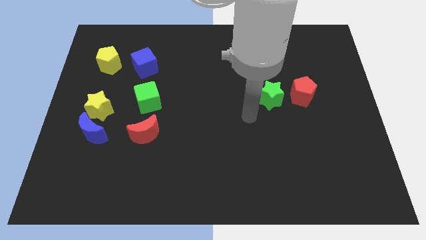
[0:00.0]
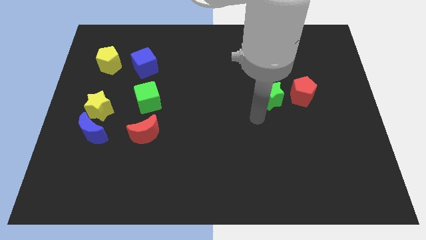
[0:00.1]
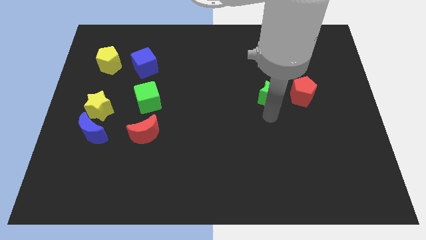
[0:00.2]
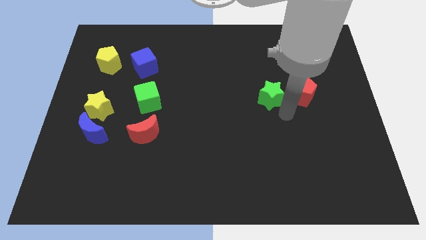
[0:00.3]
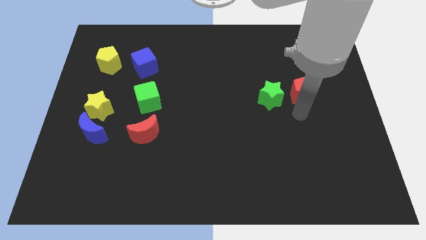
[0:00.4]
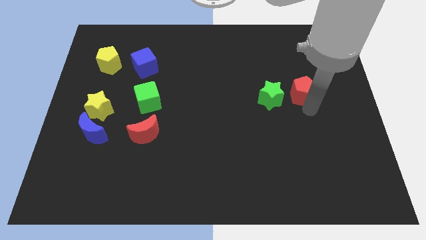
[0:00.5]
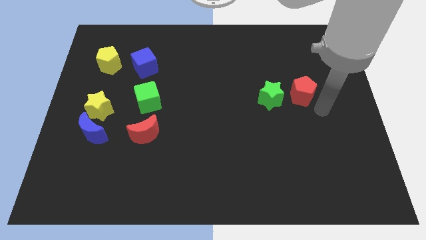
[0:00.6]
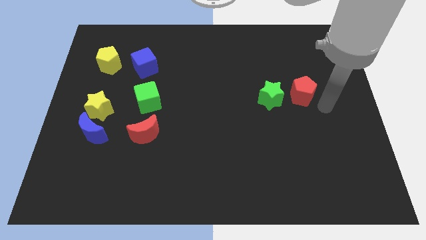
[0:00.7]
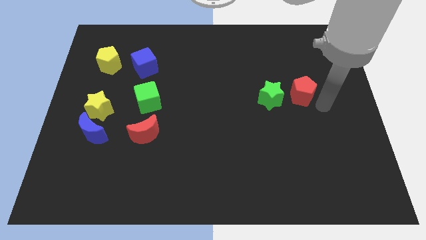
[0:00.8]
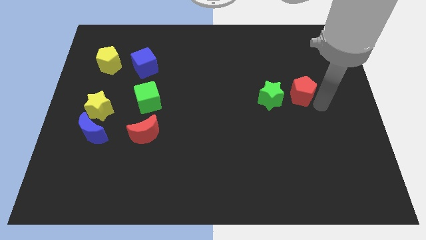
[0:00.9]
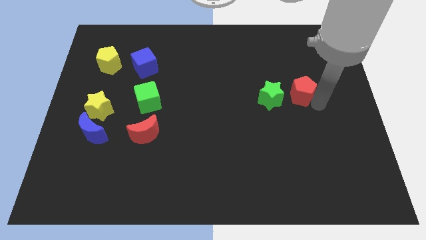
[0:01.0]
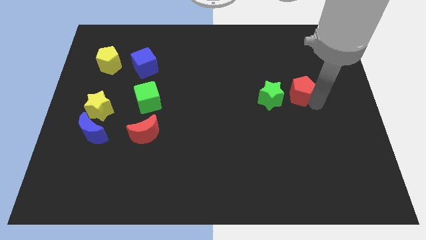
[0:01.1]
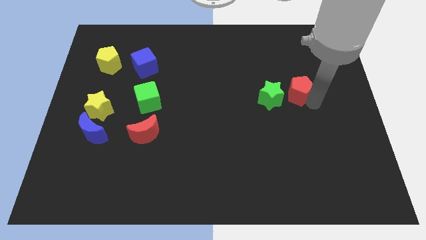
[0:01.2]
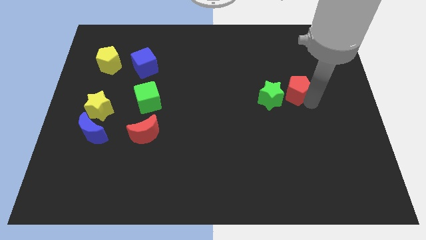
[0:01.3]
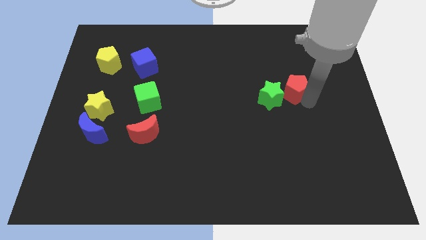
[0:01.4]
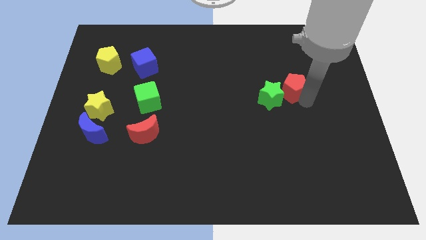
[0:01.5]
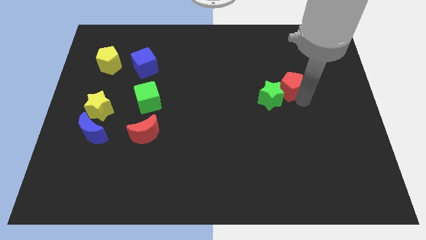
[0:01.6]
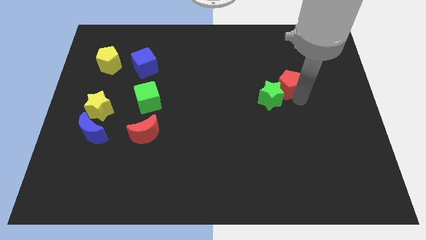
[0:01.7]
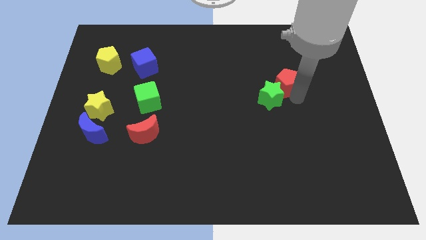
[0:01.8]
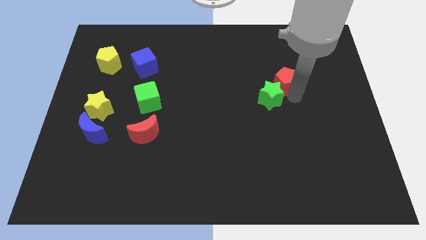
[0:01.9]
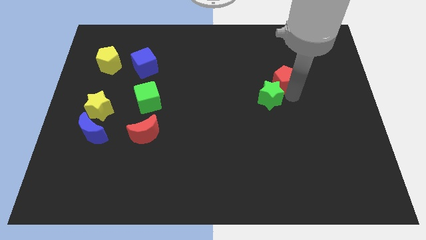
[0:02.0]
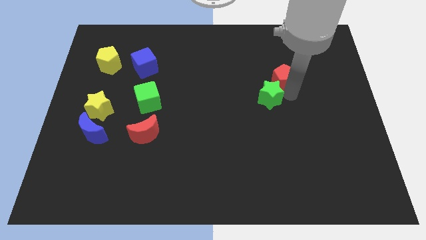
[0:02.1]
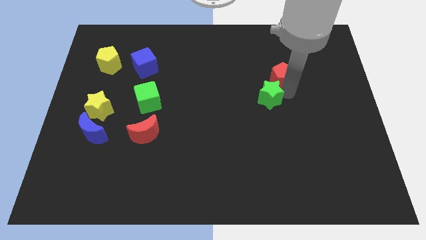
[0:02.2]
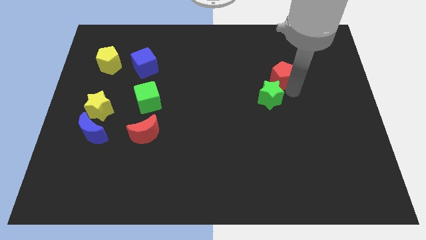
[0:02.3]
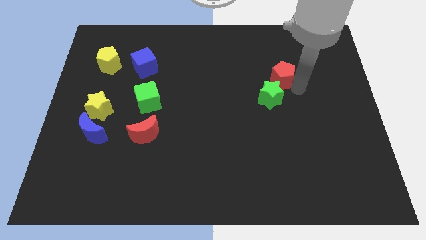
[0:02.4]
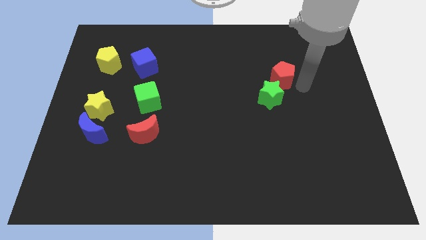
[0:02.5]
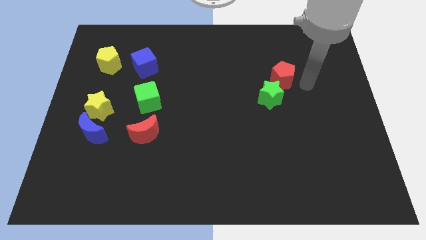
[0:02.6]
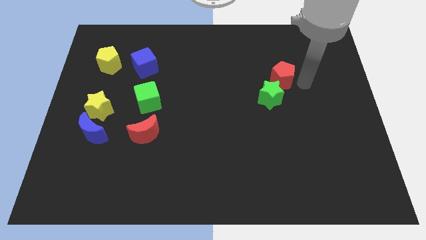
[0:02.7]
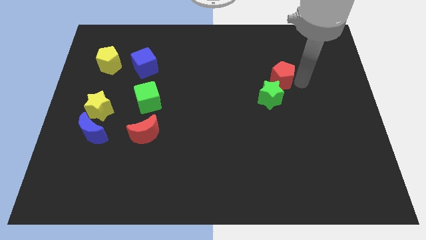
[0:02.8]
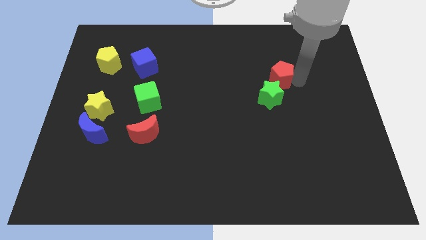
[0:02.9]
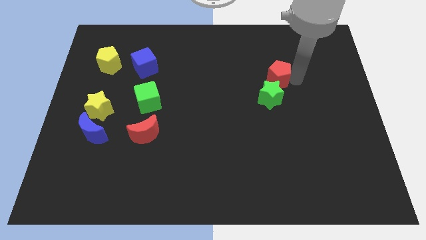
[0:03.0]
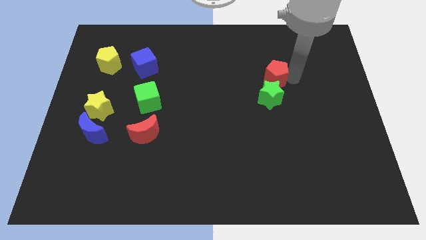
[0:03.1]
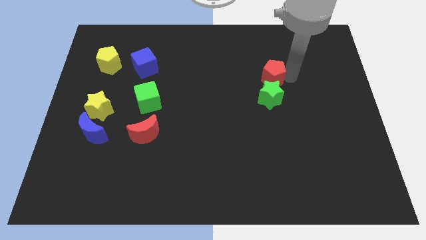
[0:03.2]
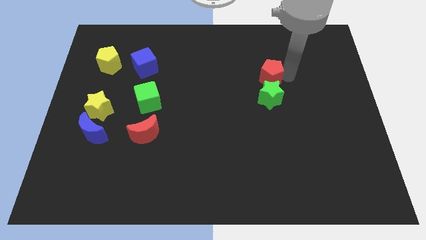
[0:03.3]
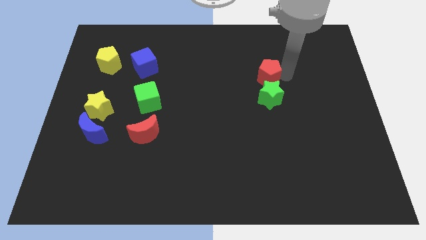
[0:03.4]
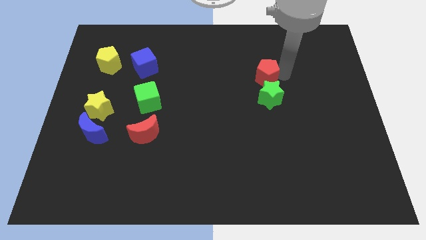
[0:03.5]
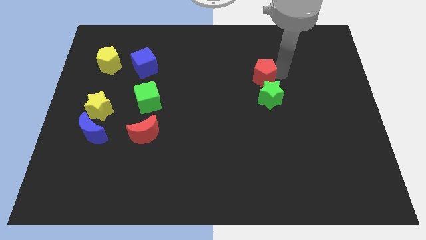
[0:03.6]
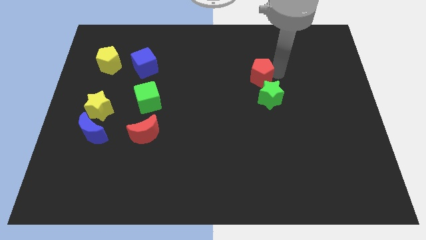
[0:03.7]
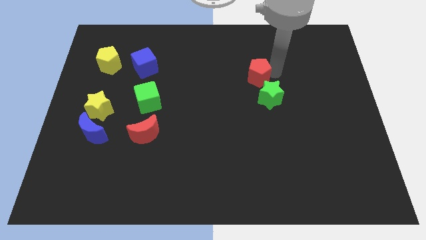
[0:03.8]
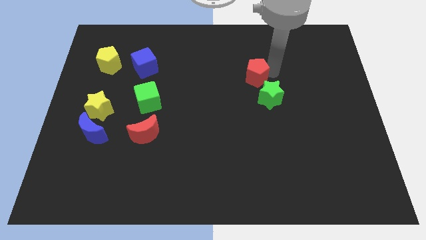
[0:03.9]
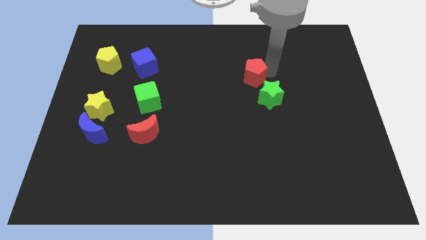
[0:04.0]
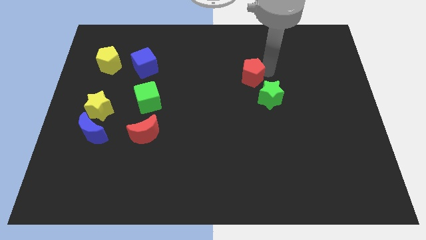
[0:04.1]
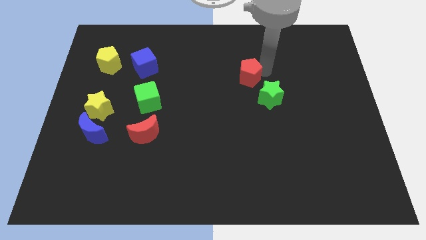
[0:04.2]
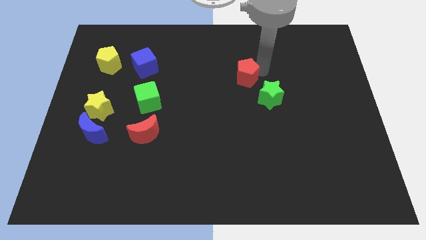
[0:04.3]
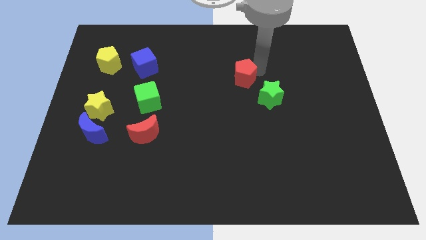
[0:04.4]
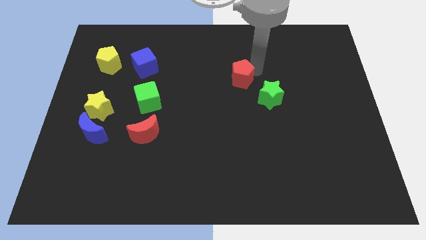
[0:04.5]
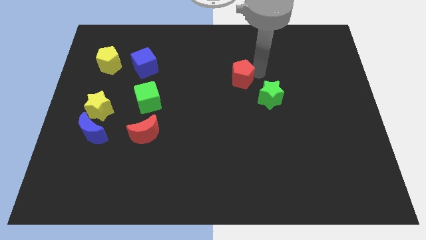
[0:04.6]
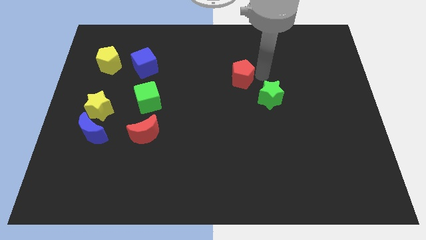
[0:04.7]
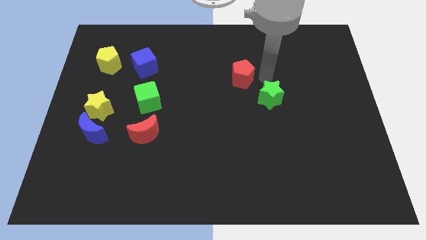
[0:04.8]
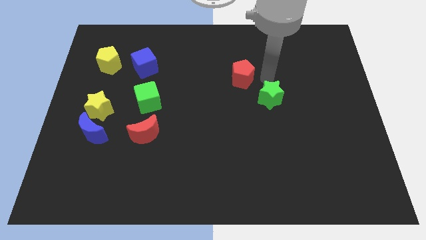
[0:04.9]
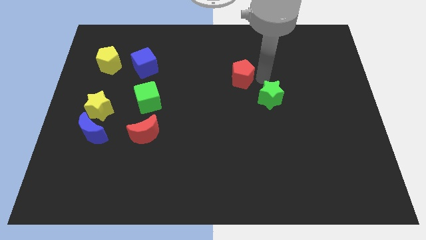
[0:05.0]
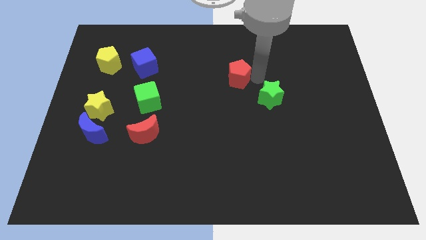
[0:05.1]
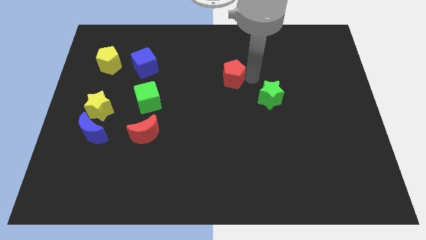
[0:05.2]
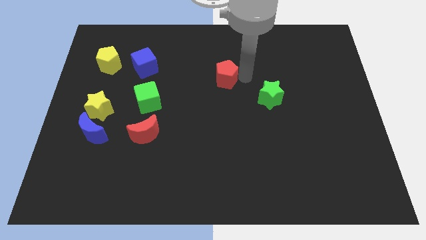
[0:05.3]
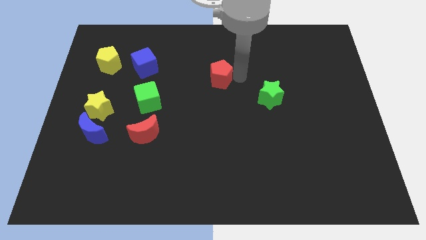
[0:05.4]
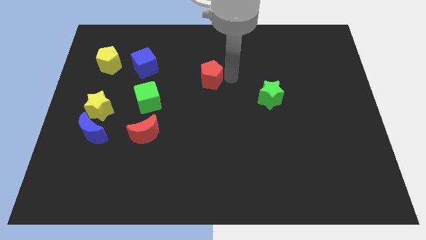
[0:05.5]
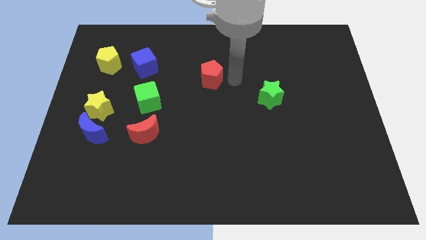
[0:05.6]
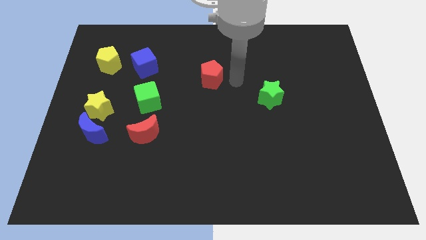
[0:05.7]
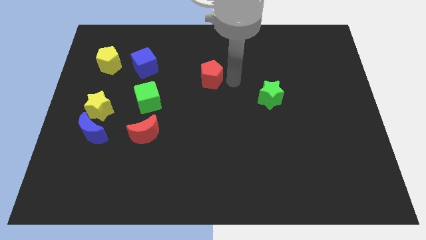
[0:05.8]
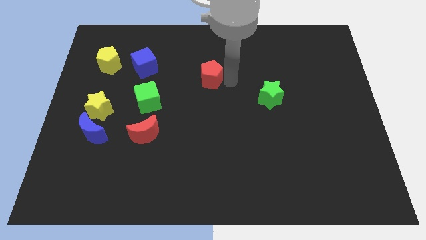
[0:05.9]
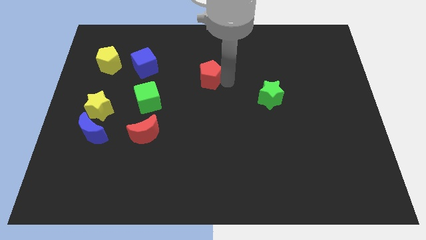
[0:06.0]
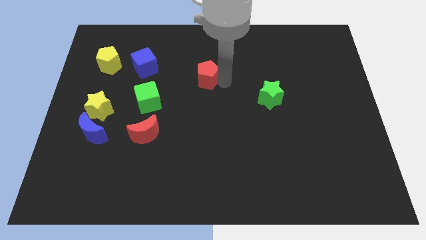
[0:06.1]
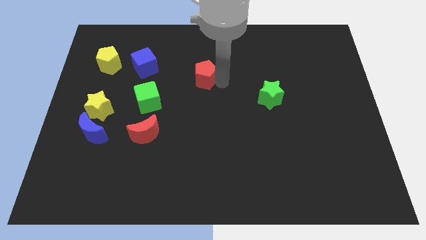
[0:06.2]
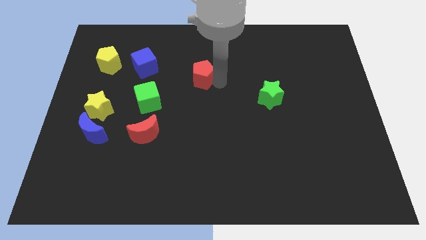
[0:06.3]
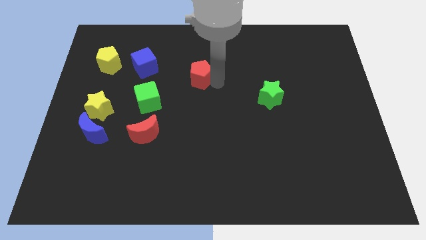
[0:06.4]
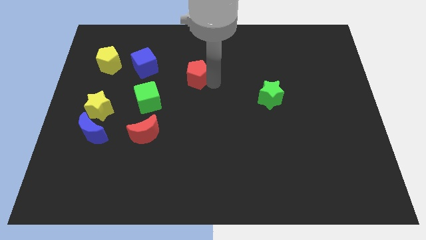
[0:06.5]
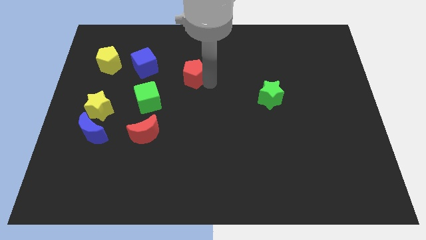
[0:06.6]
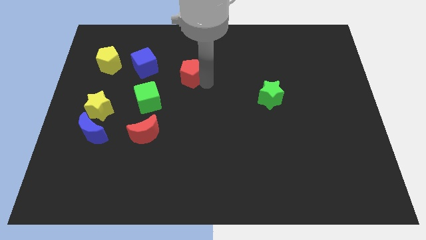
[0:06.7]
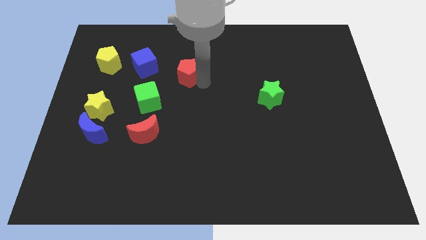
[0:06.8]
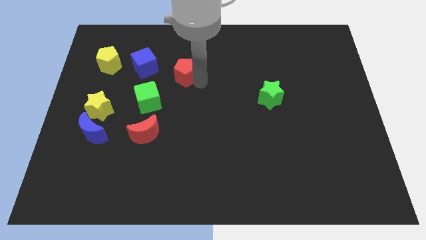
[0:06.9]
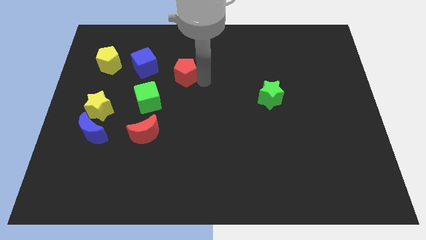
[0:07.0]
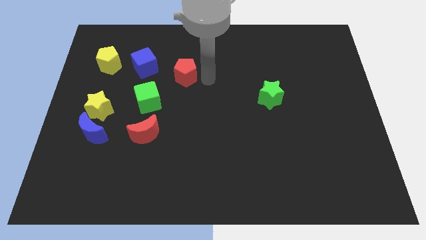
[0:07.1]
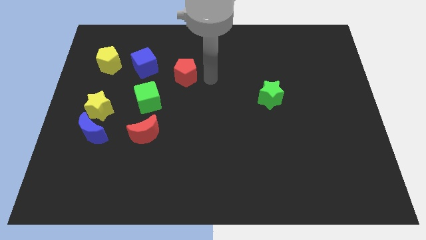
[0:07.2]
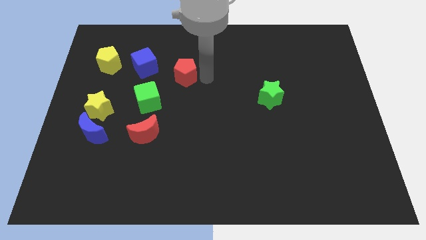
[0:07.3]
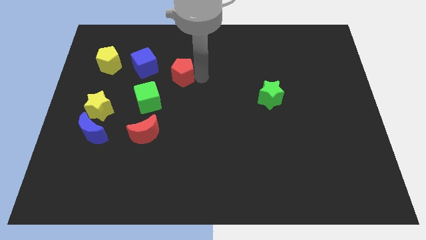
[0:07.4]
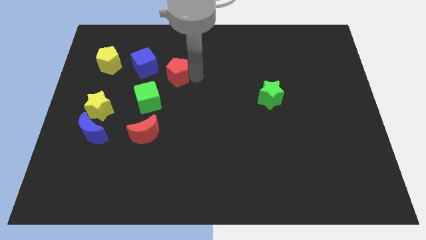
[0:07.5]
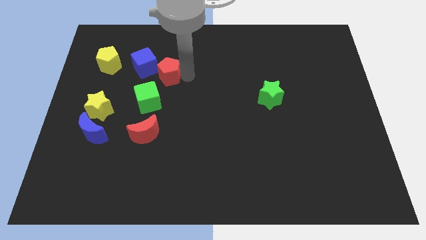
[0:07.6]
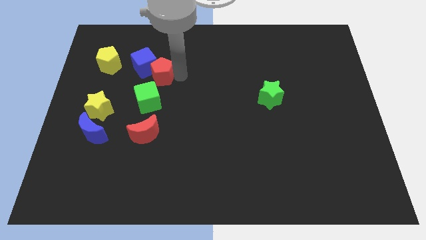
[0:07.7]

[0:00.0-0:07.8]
push the red pentagon towards the blue cube

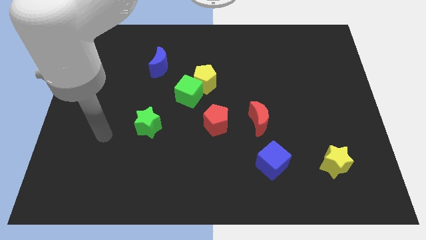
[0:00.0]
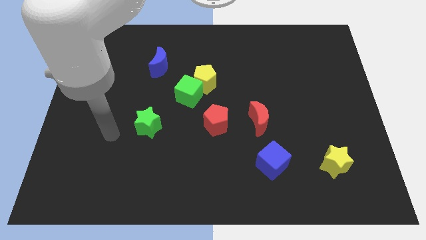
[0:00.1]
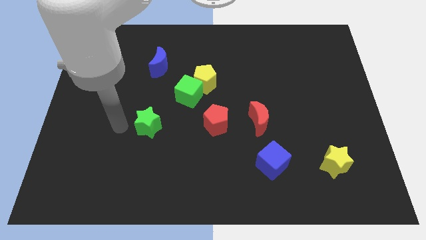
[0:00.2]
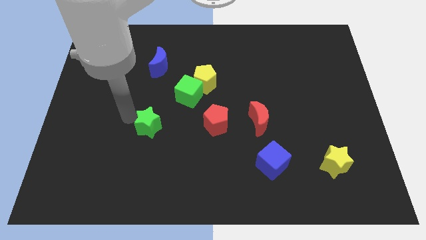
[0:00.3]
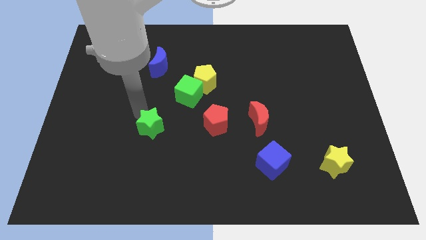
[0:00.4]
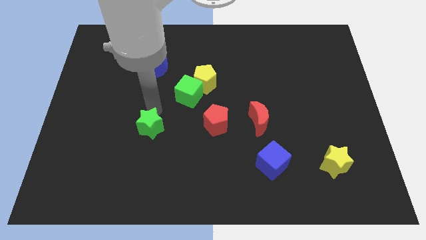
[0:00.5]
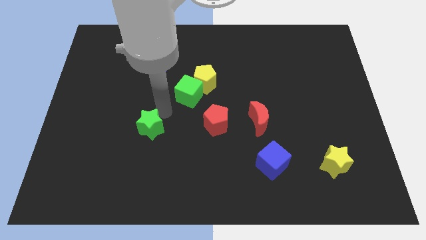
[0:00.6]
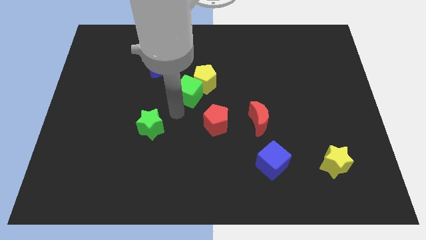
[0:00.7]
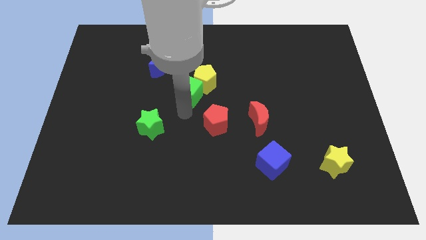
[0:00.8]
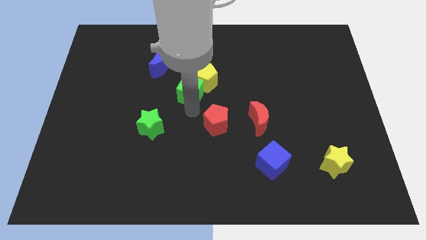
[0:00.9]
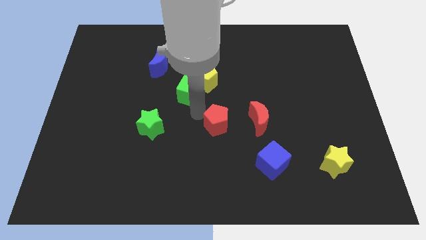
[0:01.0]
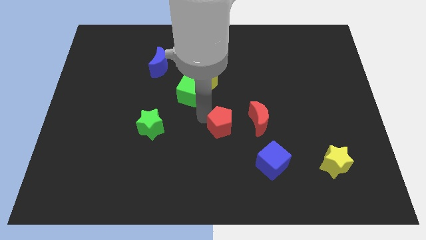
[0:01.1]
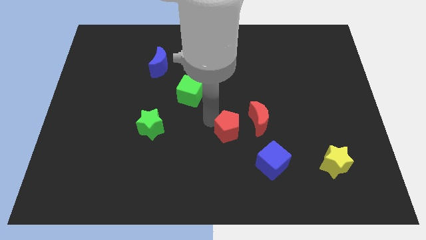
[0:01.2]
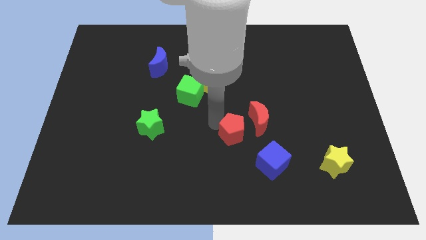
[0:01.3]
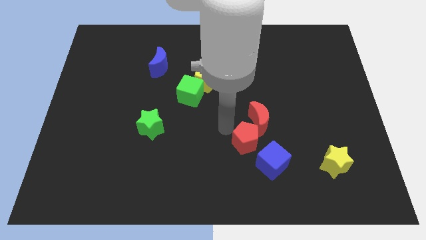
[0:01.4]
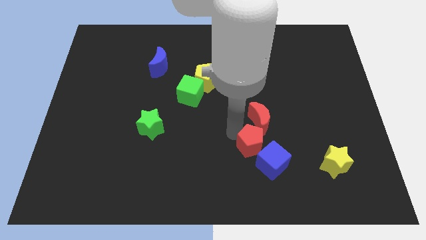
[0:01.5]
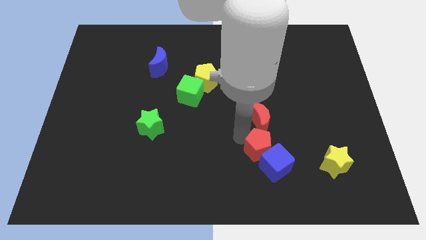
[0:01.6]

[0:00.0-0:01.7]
put the red pentagon towards the blue cube
